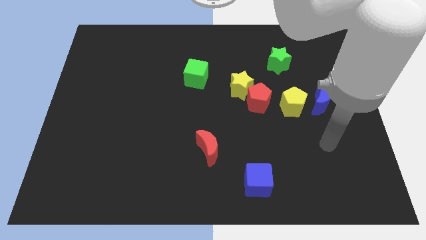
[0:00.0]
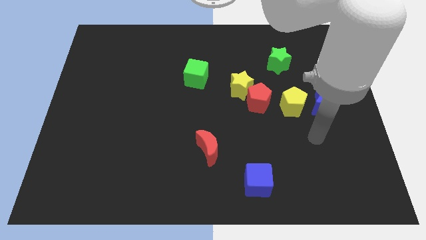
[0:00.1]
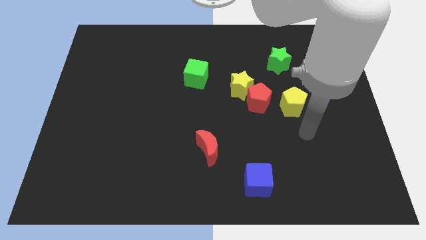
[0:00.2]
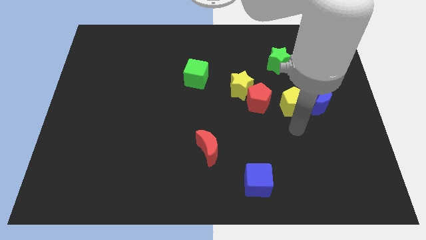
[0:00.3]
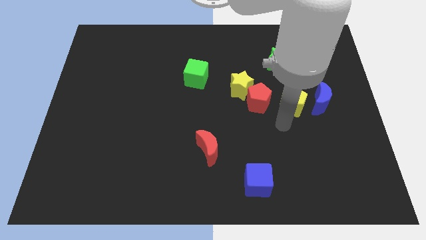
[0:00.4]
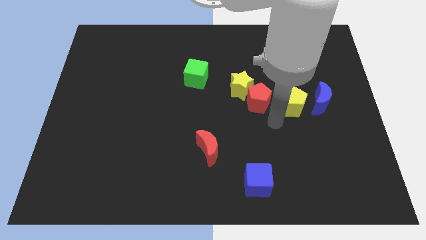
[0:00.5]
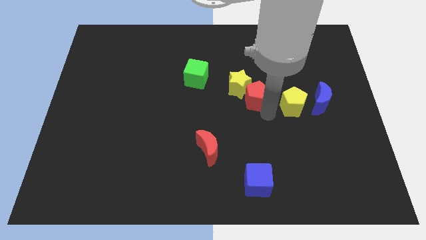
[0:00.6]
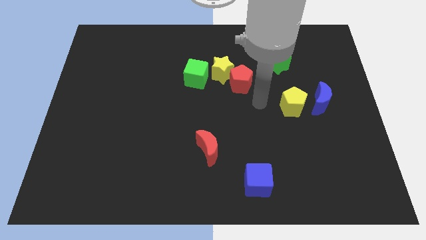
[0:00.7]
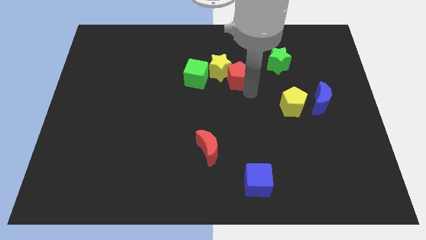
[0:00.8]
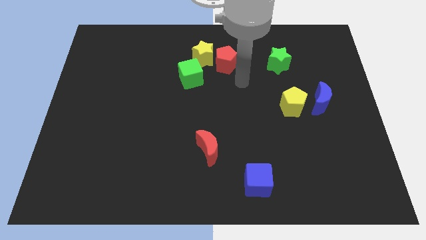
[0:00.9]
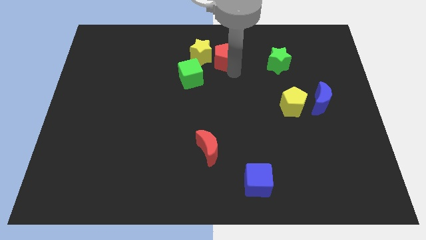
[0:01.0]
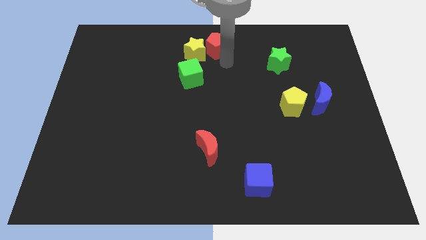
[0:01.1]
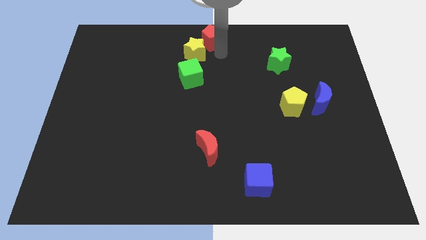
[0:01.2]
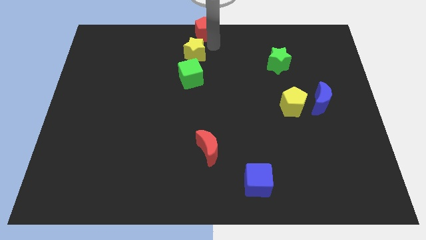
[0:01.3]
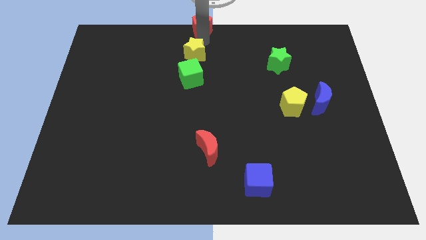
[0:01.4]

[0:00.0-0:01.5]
move the yellow star away from the red pentagon

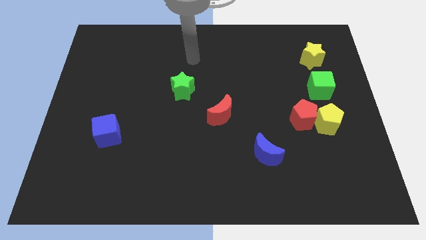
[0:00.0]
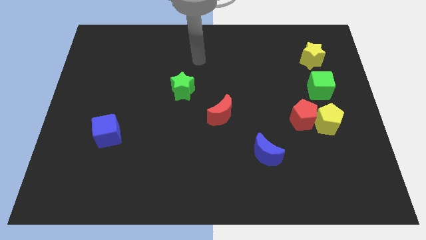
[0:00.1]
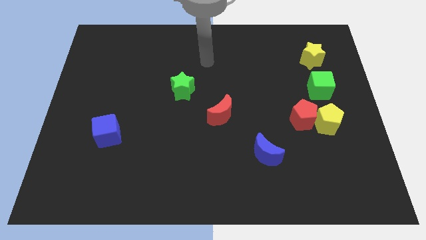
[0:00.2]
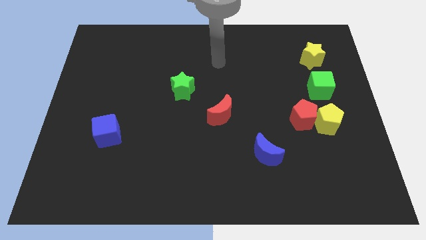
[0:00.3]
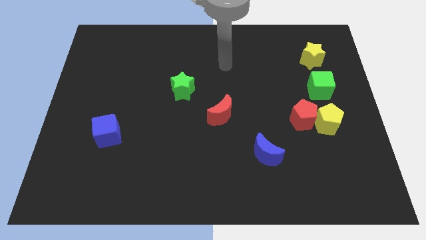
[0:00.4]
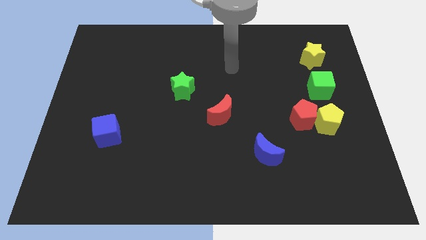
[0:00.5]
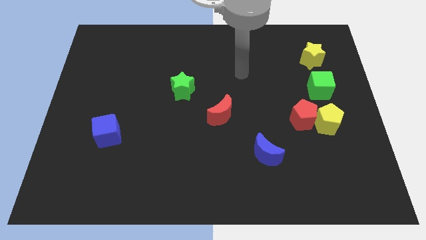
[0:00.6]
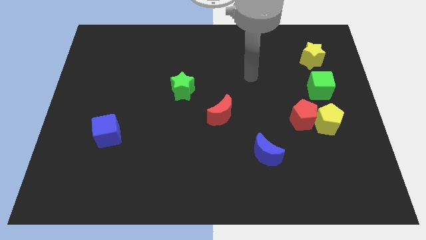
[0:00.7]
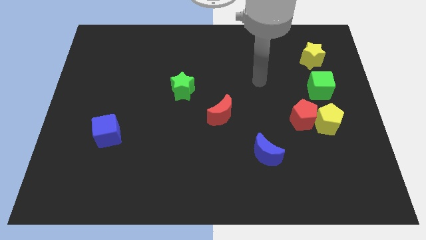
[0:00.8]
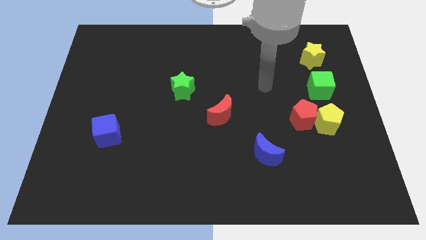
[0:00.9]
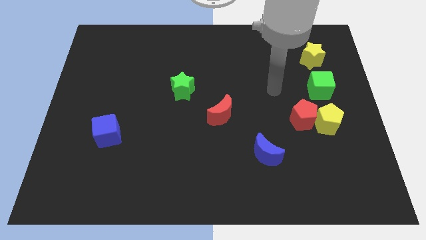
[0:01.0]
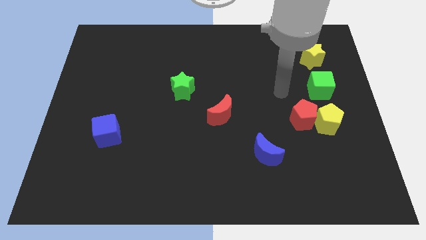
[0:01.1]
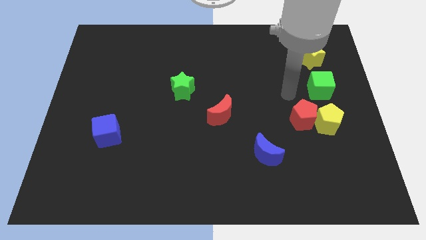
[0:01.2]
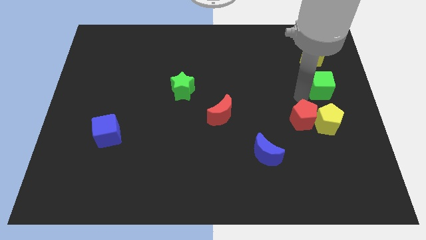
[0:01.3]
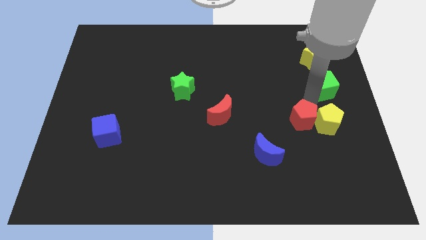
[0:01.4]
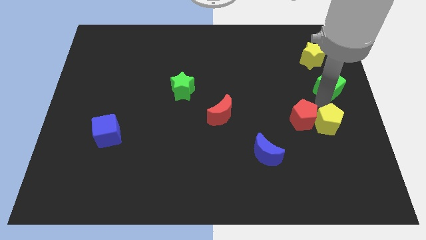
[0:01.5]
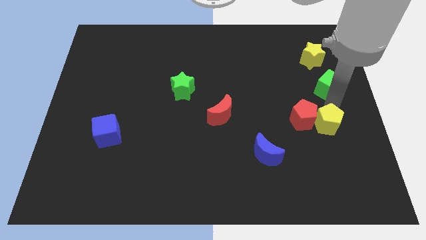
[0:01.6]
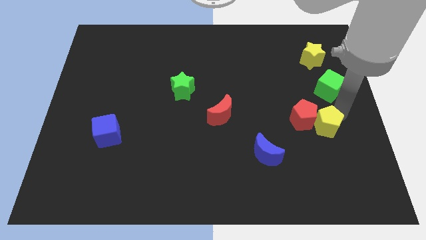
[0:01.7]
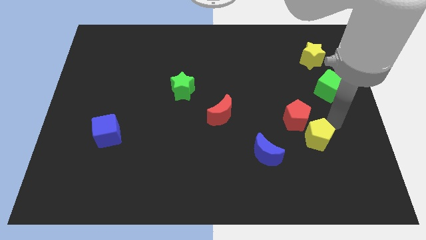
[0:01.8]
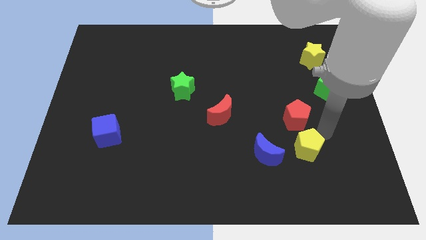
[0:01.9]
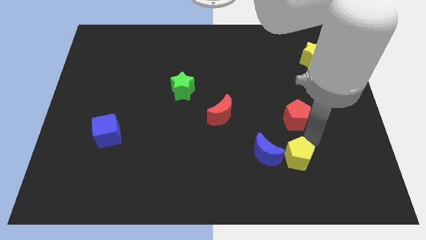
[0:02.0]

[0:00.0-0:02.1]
pull the red pentagon apart from the yellow pentagon

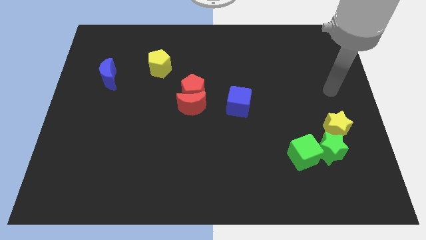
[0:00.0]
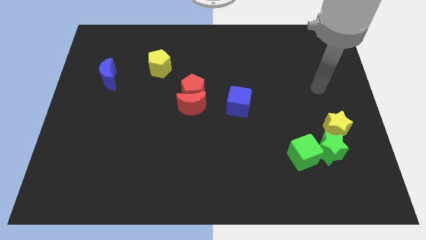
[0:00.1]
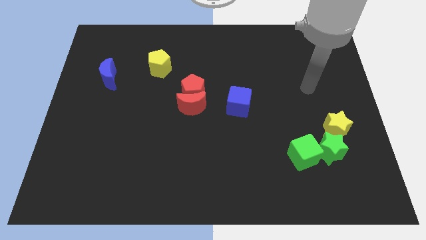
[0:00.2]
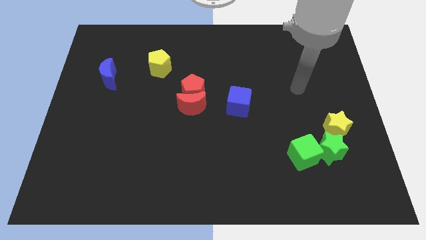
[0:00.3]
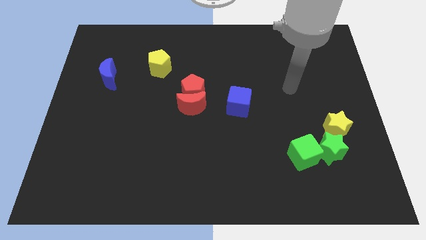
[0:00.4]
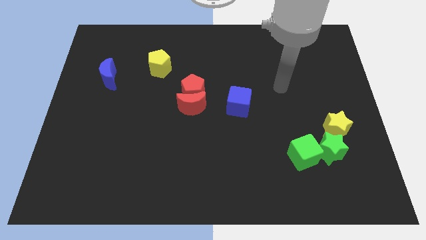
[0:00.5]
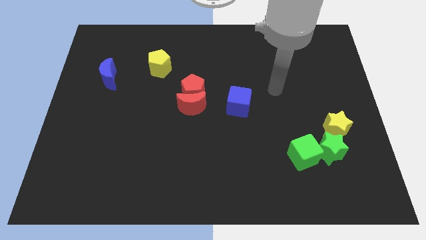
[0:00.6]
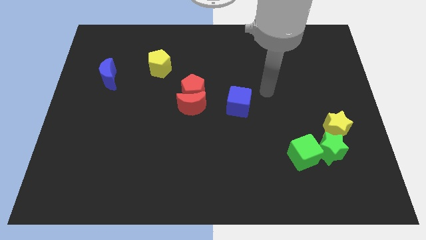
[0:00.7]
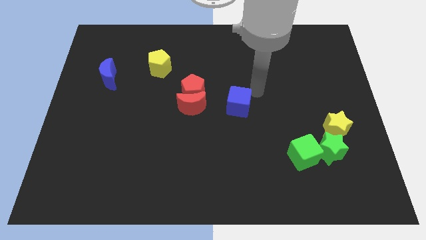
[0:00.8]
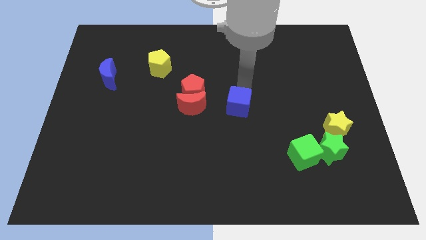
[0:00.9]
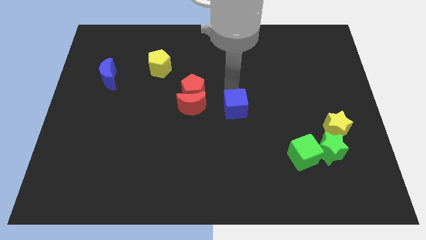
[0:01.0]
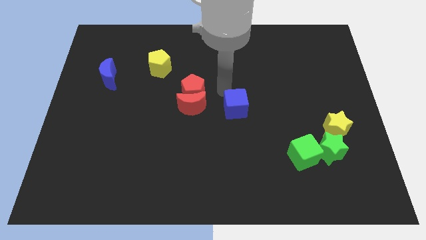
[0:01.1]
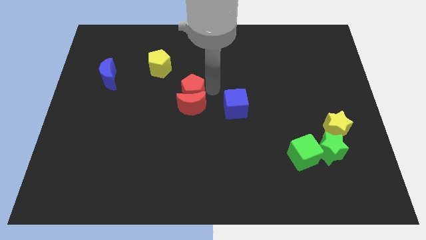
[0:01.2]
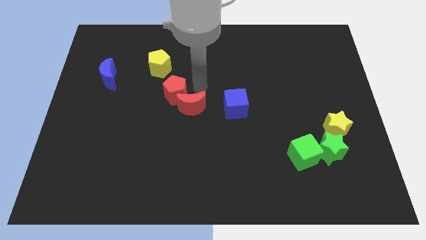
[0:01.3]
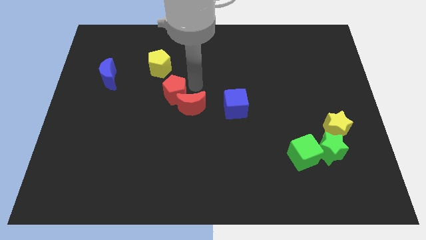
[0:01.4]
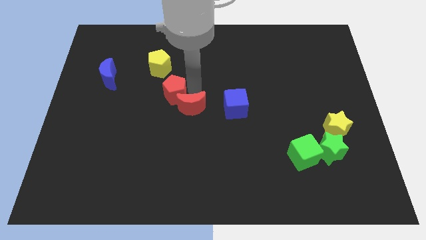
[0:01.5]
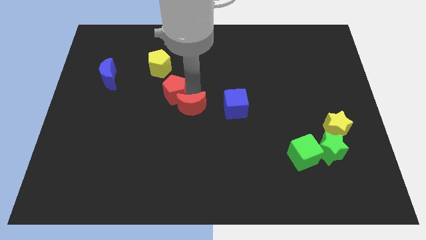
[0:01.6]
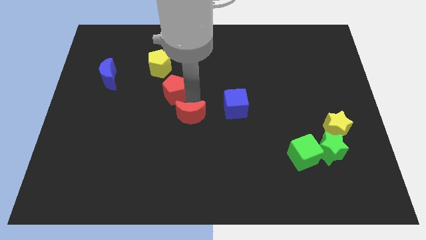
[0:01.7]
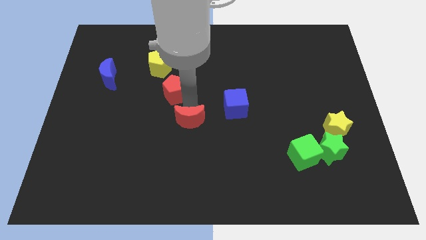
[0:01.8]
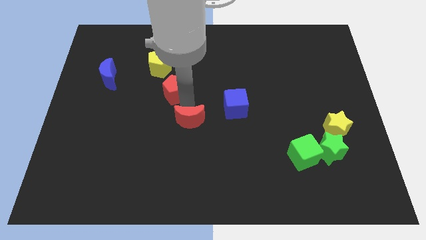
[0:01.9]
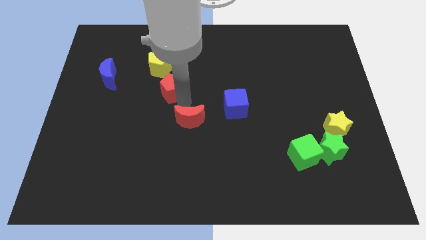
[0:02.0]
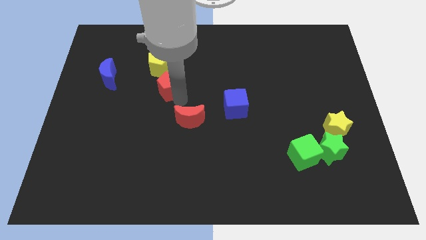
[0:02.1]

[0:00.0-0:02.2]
pull the red moon apart from the red pentagon

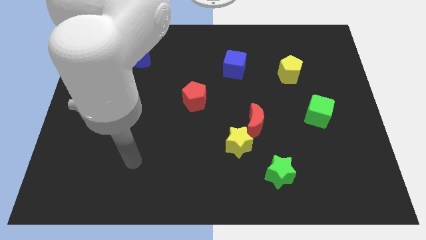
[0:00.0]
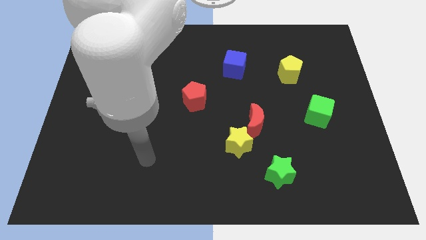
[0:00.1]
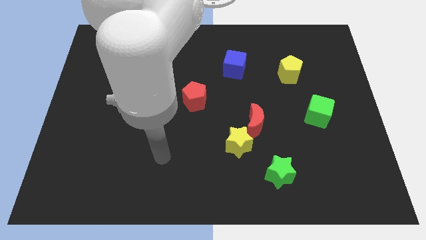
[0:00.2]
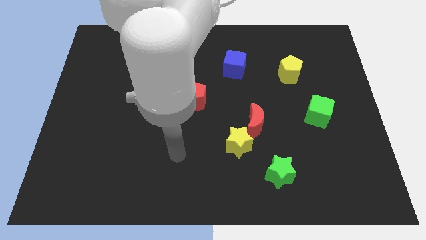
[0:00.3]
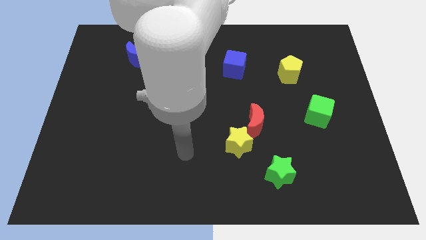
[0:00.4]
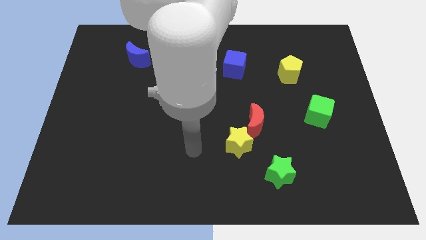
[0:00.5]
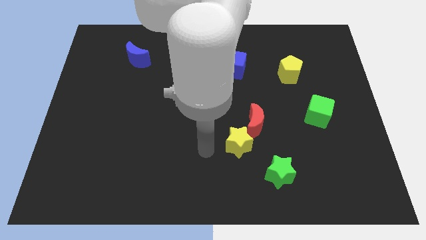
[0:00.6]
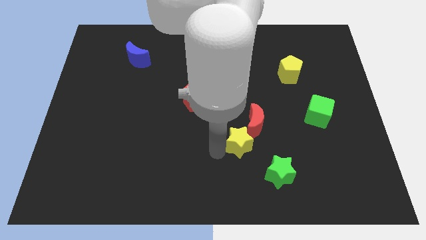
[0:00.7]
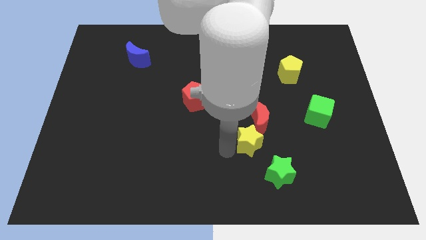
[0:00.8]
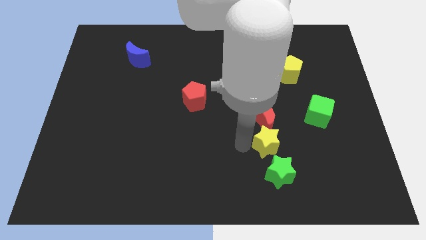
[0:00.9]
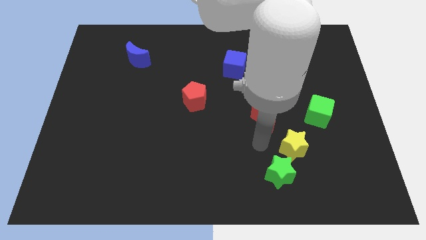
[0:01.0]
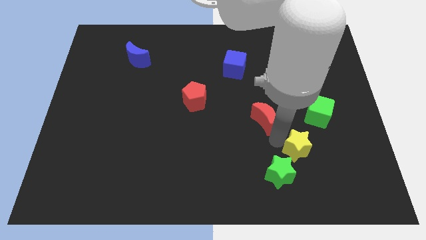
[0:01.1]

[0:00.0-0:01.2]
pull the red moon apart from the yellow star

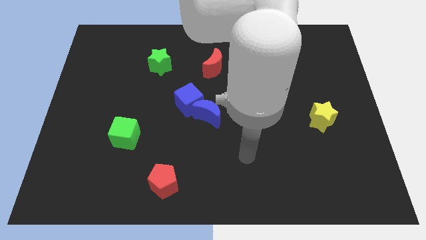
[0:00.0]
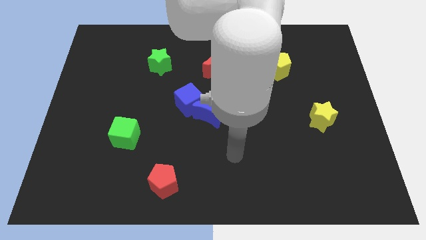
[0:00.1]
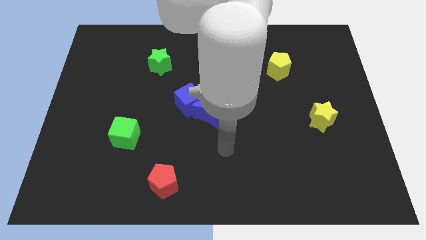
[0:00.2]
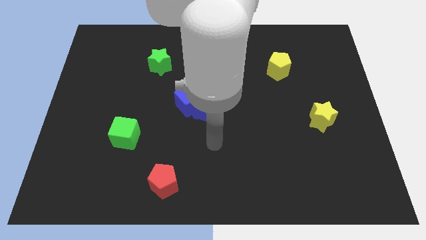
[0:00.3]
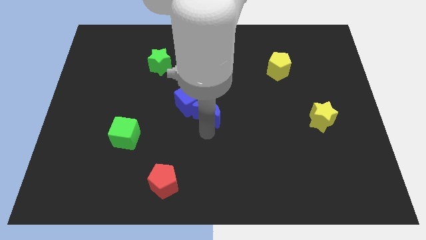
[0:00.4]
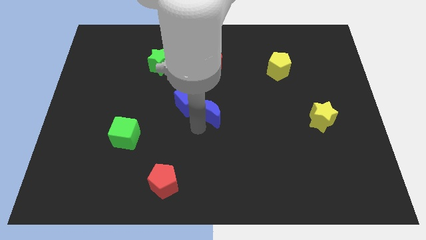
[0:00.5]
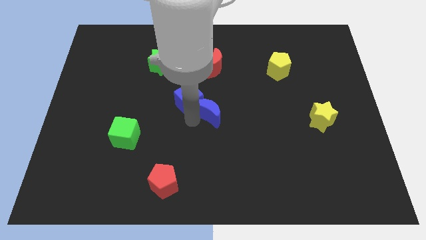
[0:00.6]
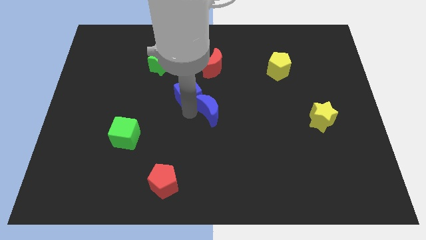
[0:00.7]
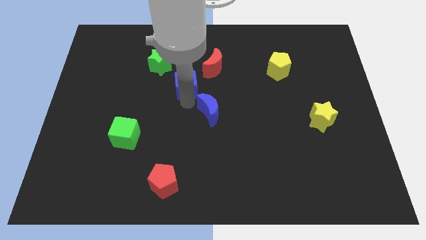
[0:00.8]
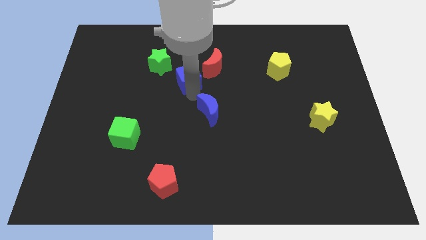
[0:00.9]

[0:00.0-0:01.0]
move the blue moon away from the blue cube

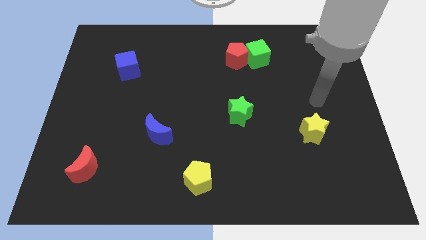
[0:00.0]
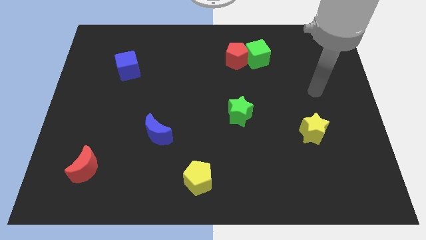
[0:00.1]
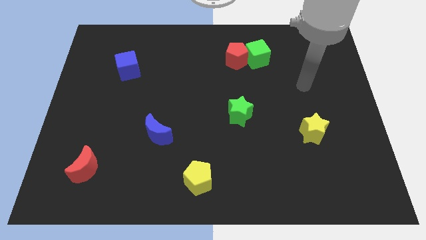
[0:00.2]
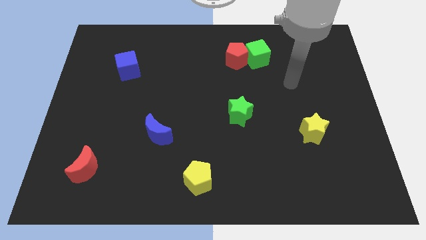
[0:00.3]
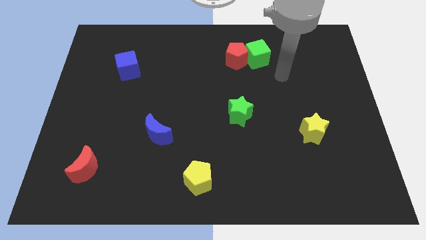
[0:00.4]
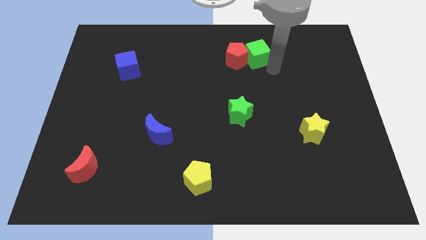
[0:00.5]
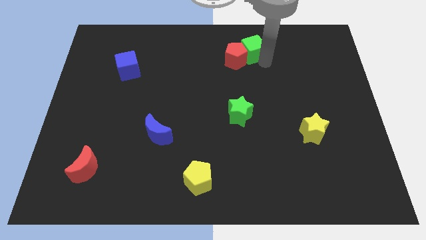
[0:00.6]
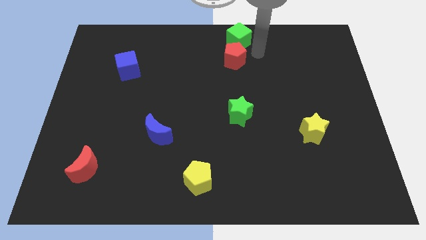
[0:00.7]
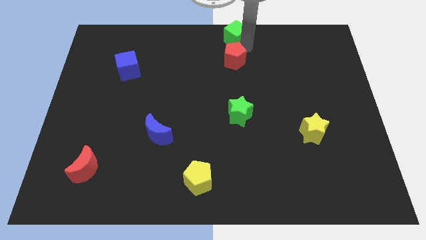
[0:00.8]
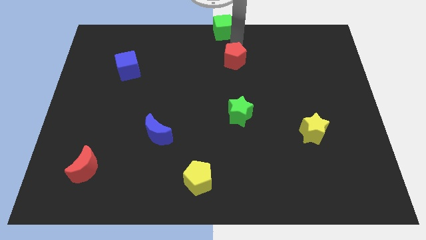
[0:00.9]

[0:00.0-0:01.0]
move the red pentagon away from the green cube
